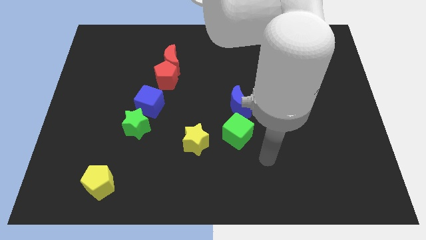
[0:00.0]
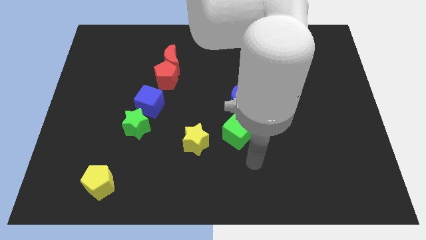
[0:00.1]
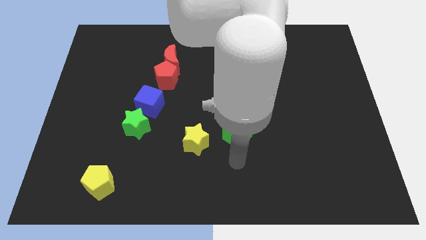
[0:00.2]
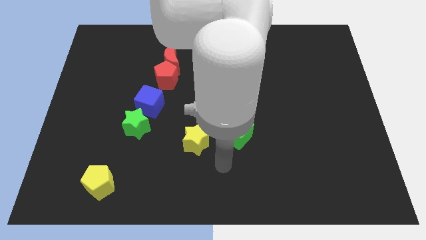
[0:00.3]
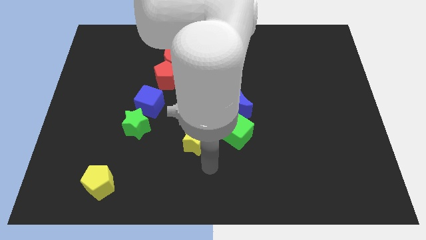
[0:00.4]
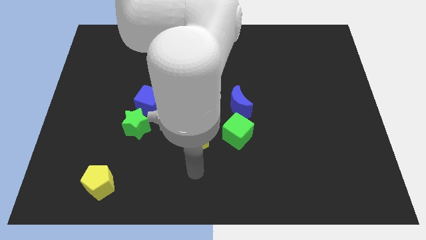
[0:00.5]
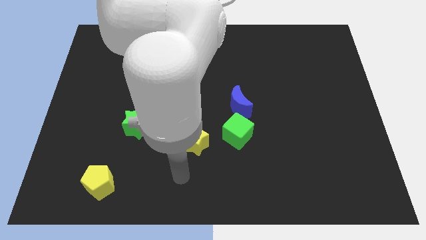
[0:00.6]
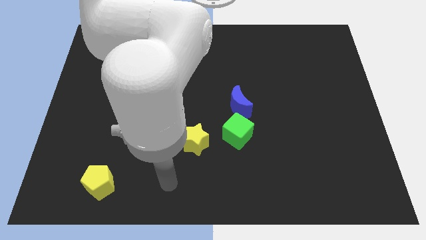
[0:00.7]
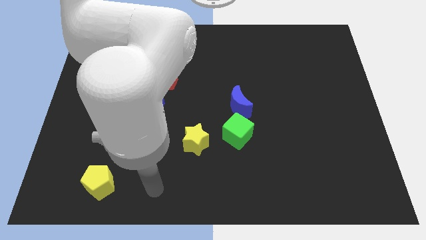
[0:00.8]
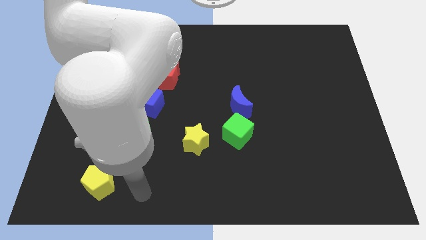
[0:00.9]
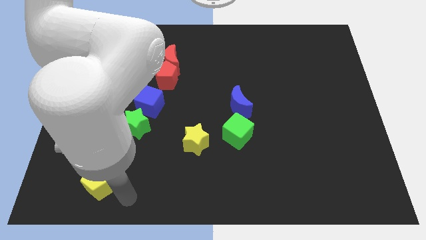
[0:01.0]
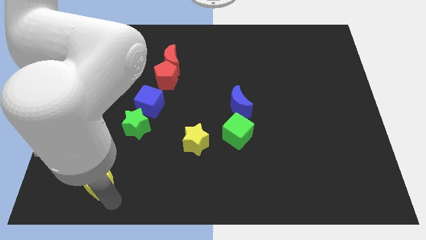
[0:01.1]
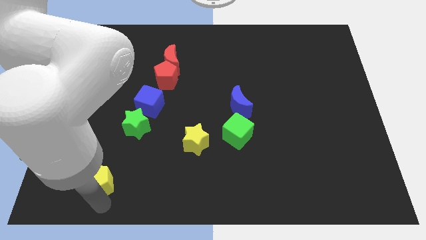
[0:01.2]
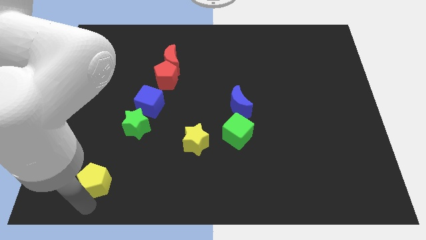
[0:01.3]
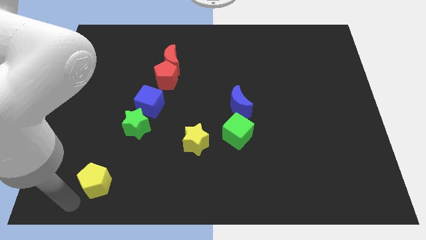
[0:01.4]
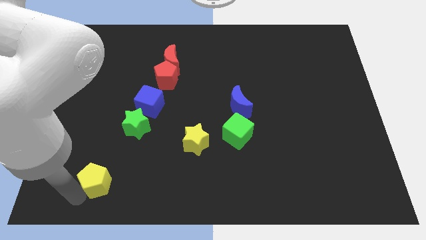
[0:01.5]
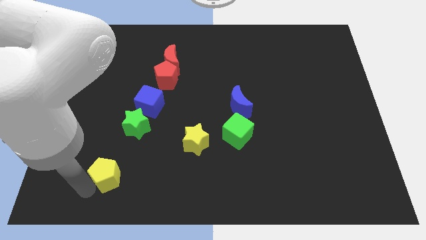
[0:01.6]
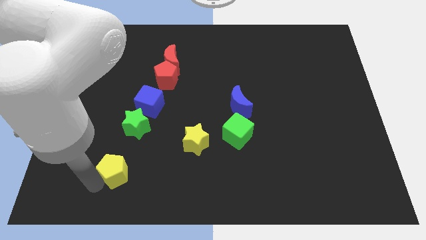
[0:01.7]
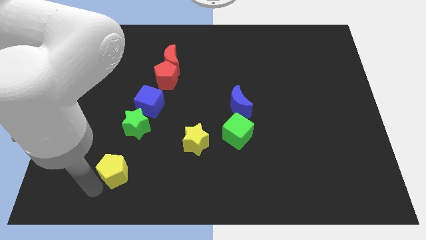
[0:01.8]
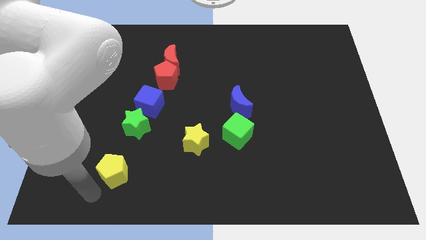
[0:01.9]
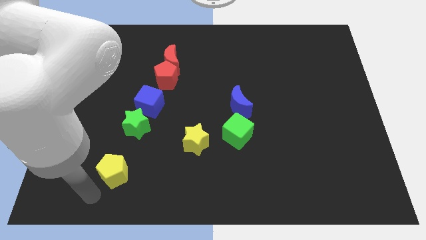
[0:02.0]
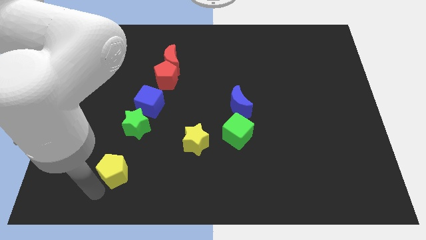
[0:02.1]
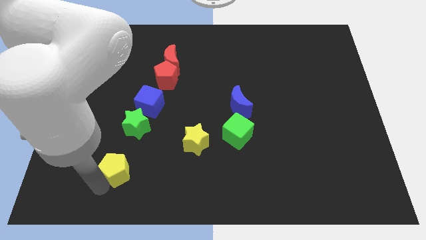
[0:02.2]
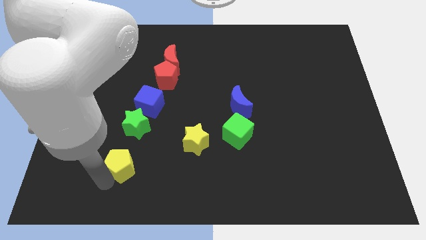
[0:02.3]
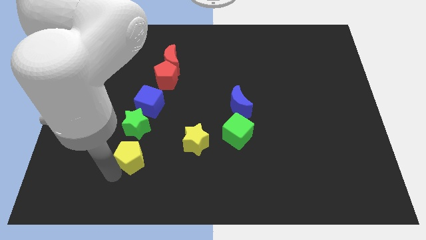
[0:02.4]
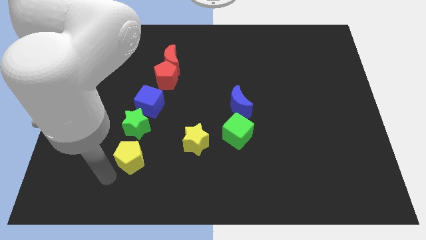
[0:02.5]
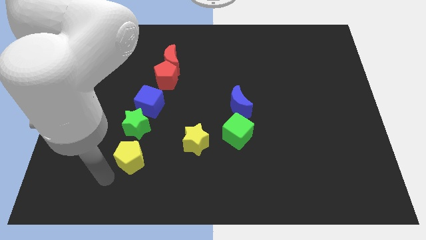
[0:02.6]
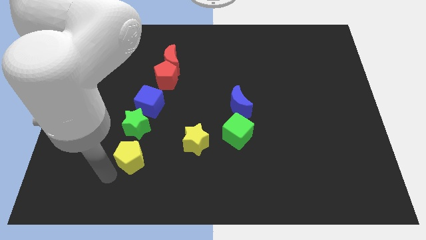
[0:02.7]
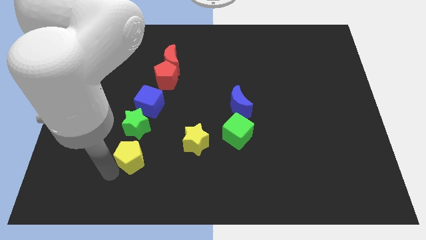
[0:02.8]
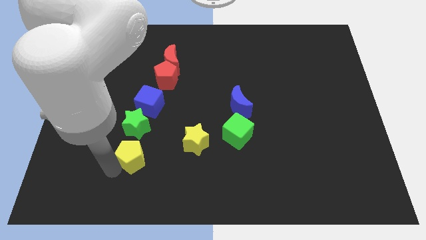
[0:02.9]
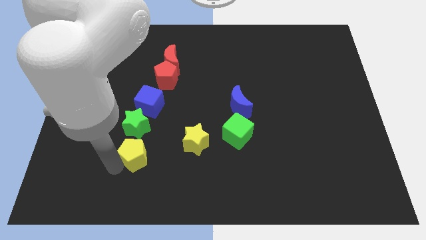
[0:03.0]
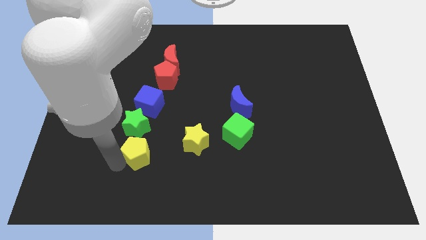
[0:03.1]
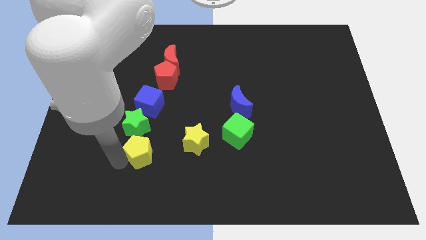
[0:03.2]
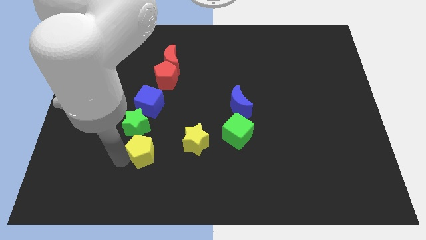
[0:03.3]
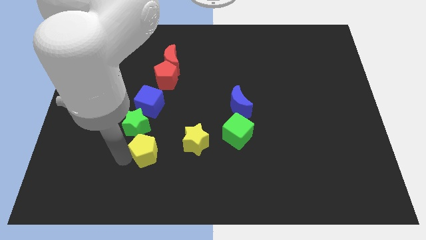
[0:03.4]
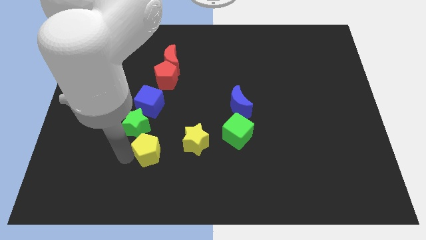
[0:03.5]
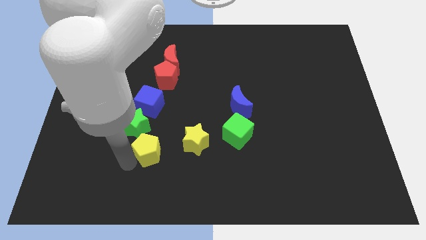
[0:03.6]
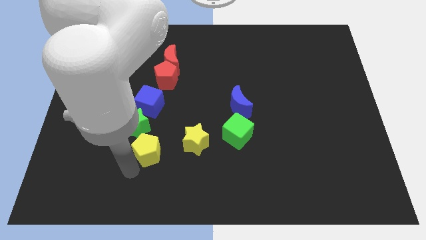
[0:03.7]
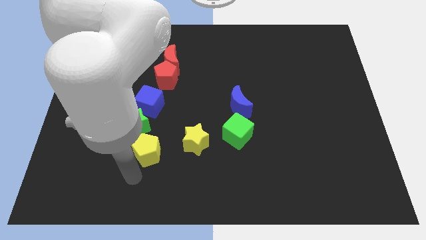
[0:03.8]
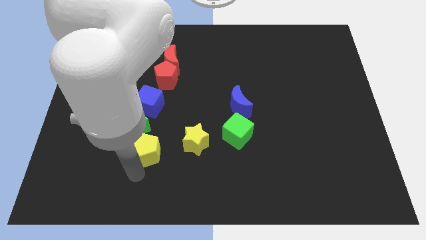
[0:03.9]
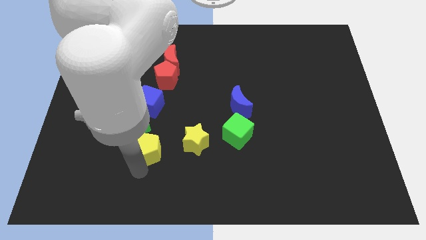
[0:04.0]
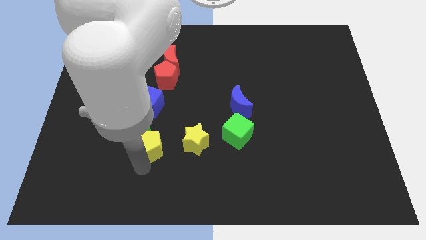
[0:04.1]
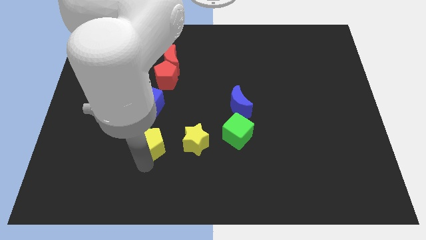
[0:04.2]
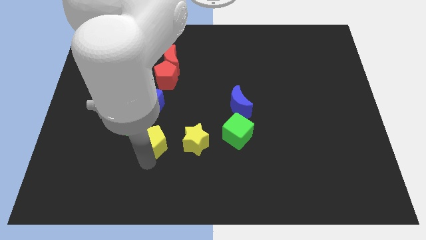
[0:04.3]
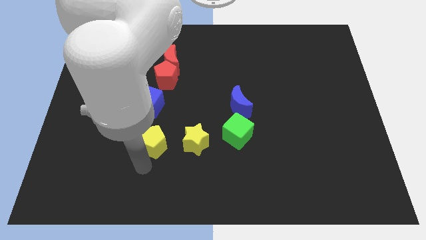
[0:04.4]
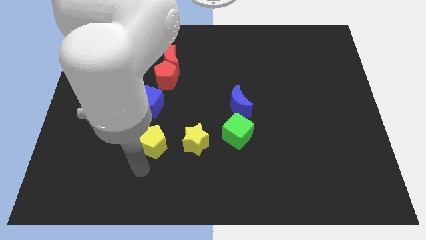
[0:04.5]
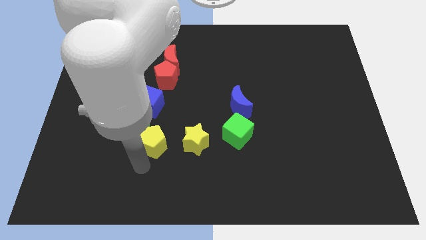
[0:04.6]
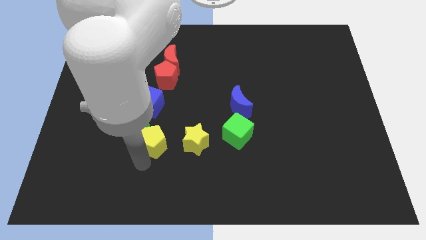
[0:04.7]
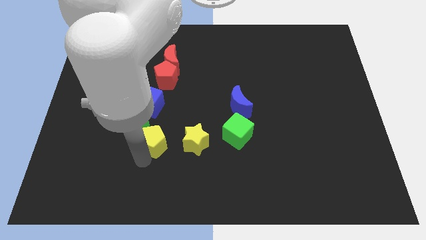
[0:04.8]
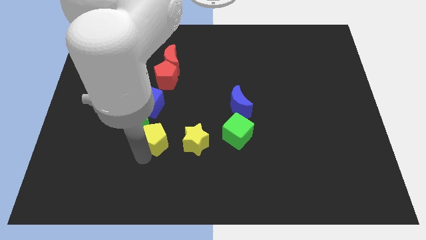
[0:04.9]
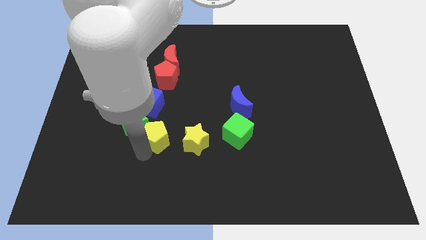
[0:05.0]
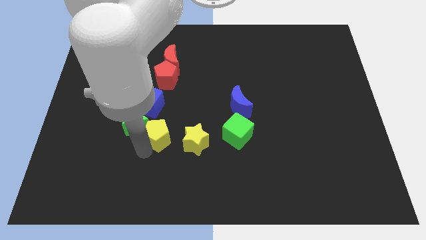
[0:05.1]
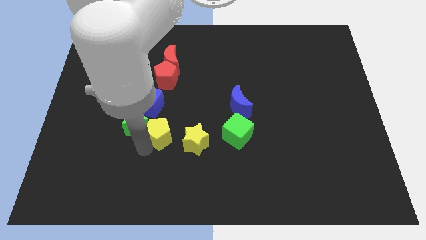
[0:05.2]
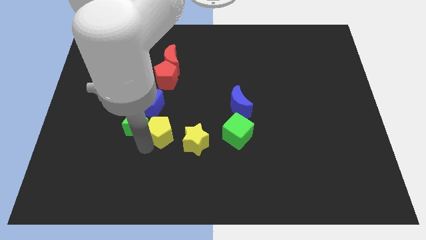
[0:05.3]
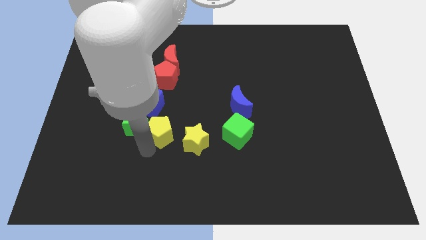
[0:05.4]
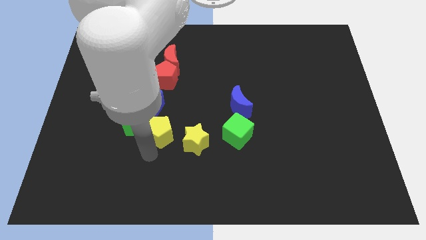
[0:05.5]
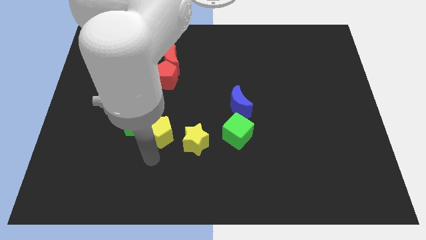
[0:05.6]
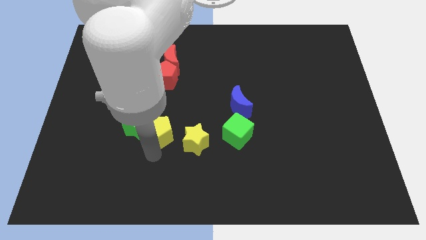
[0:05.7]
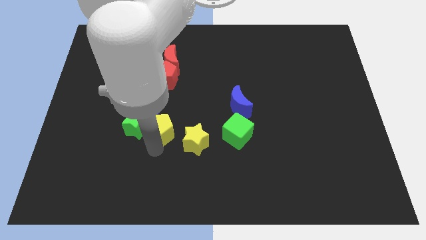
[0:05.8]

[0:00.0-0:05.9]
slide the yellow pentagon to the top right of the green star
